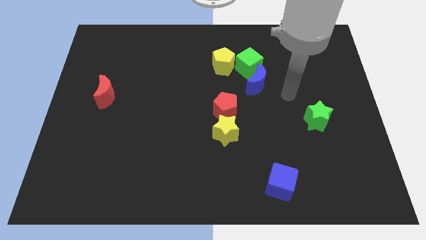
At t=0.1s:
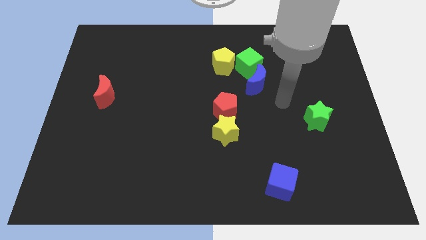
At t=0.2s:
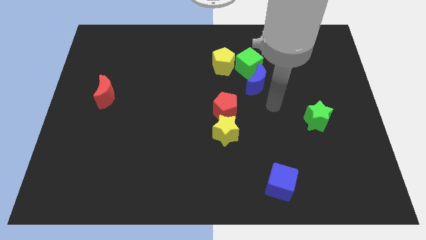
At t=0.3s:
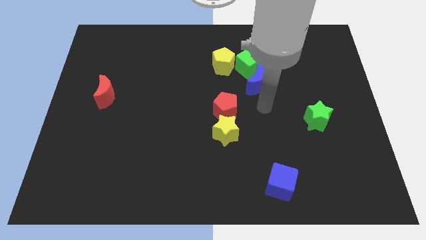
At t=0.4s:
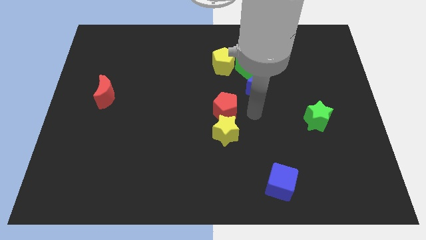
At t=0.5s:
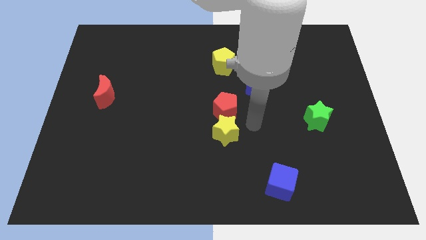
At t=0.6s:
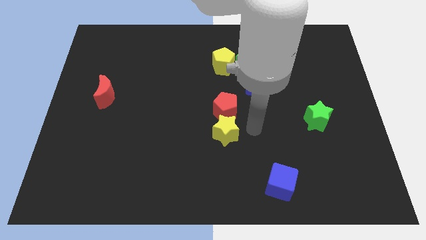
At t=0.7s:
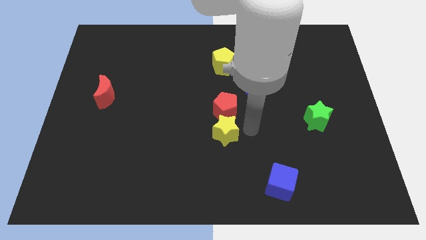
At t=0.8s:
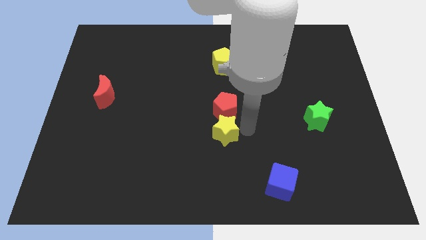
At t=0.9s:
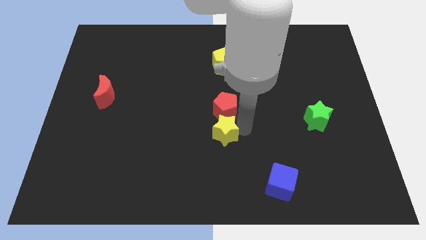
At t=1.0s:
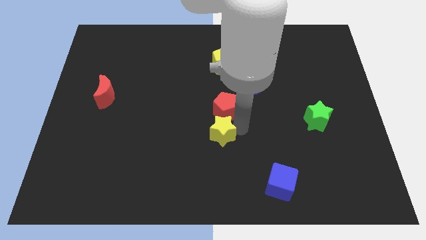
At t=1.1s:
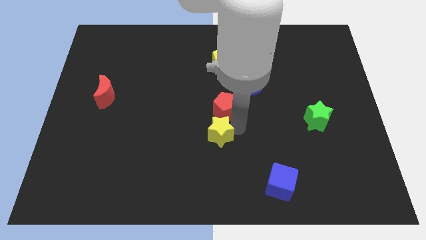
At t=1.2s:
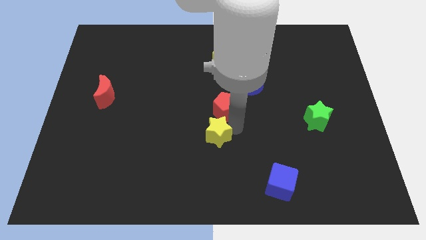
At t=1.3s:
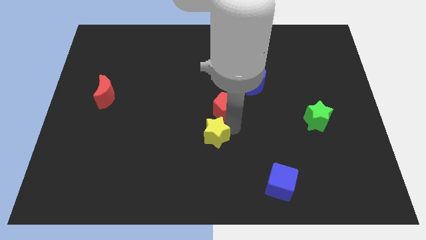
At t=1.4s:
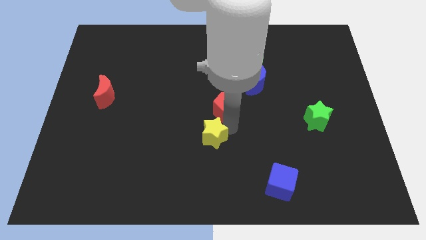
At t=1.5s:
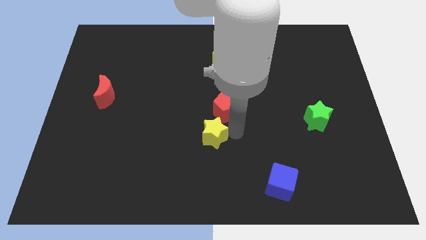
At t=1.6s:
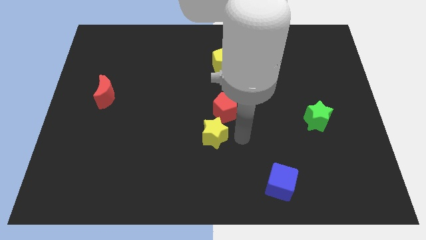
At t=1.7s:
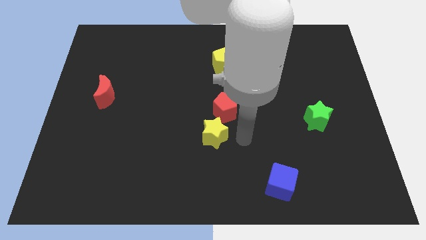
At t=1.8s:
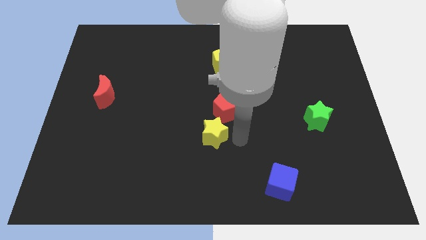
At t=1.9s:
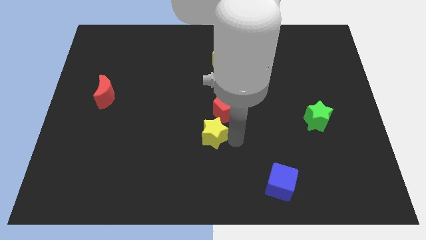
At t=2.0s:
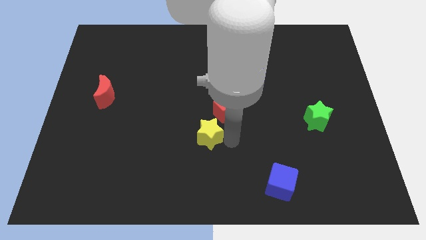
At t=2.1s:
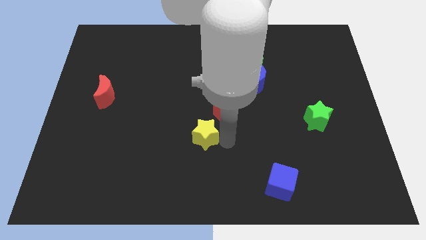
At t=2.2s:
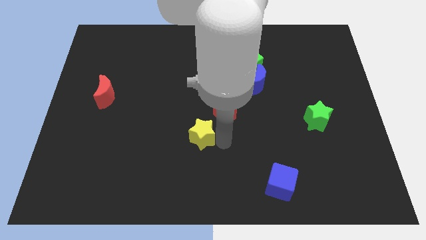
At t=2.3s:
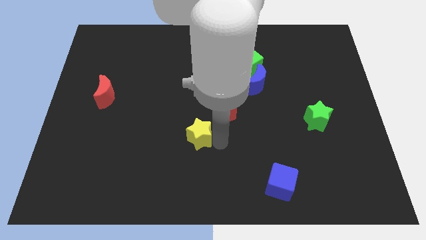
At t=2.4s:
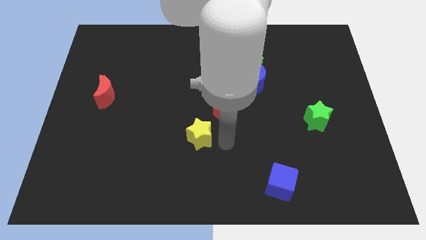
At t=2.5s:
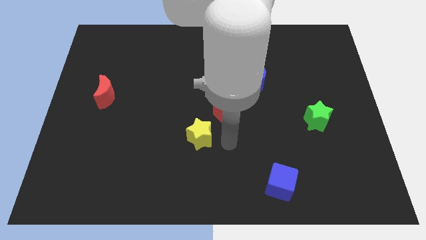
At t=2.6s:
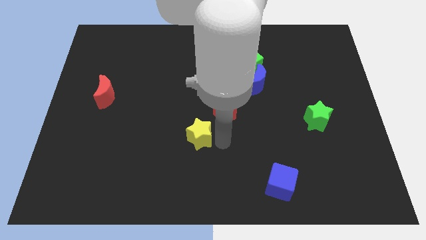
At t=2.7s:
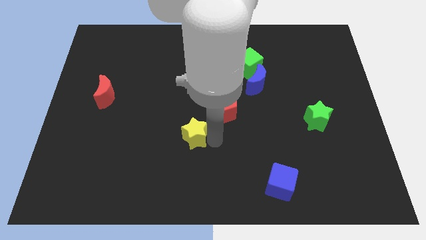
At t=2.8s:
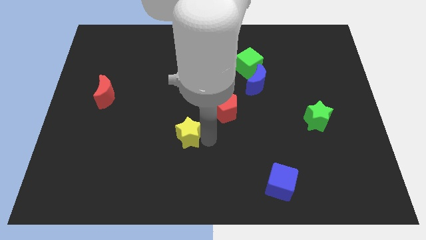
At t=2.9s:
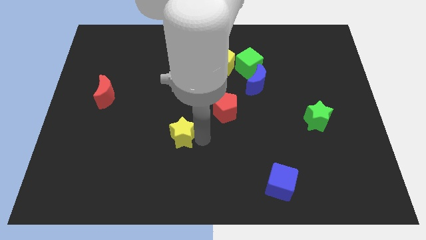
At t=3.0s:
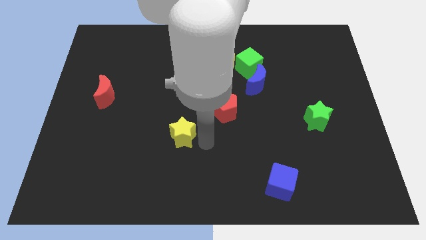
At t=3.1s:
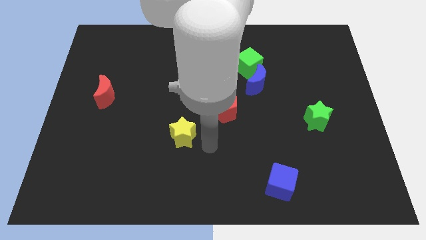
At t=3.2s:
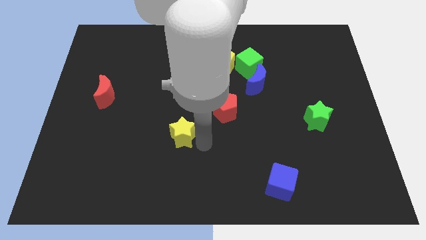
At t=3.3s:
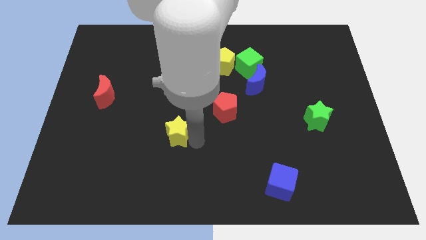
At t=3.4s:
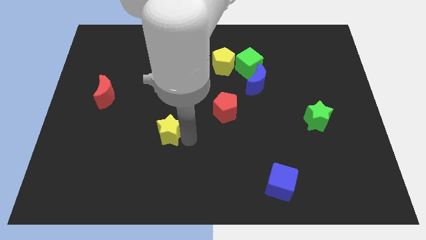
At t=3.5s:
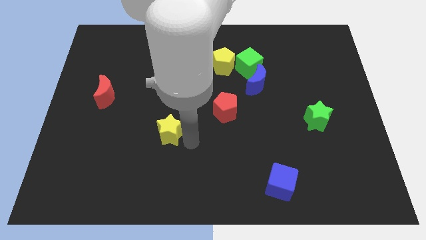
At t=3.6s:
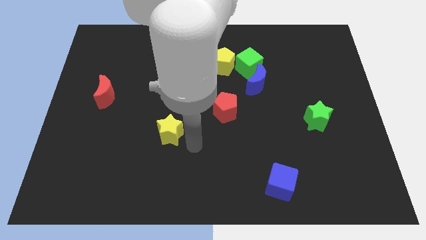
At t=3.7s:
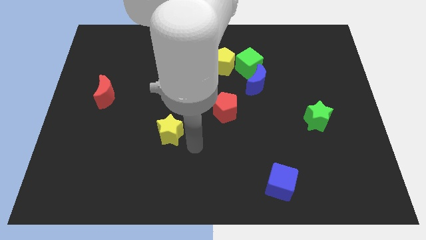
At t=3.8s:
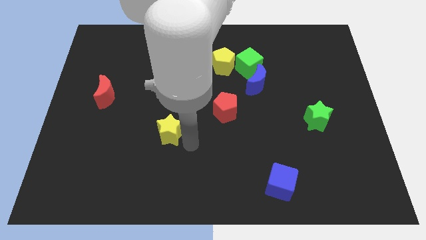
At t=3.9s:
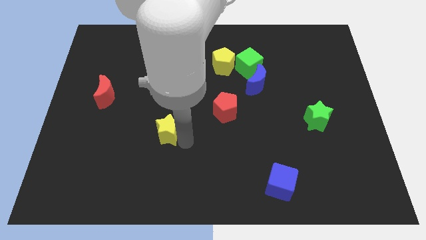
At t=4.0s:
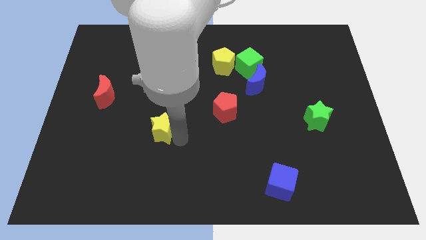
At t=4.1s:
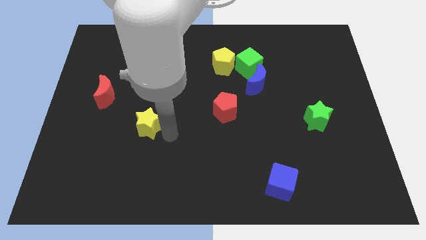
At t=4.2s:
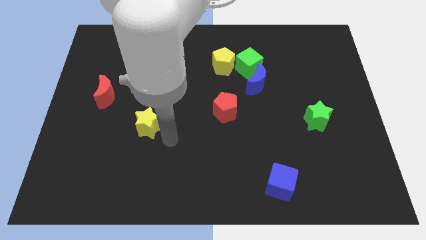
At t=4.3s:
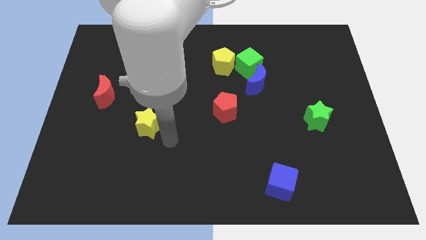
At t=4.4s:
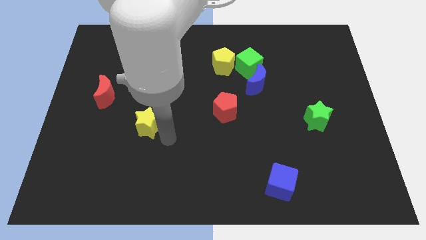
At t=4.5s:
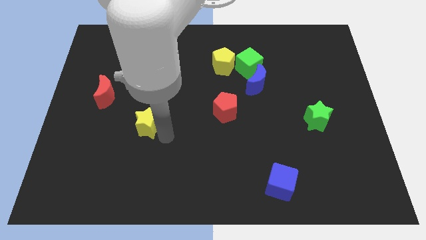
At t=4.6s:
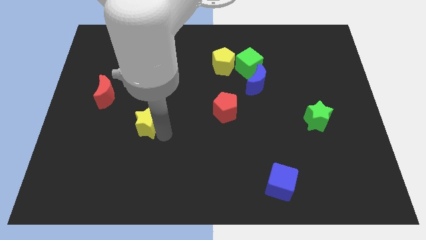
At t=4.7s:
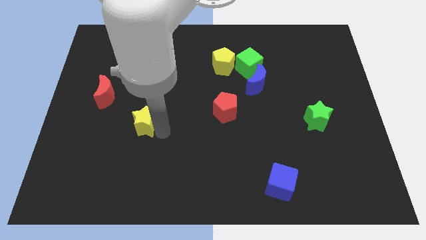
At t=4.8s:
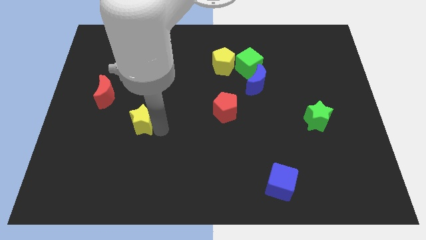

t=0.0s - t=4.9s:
slide the yellow star diagonally down and to the right of the red moon

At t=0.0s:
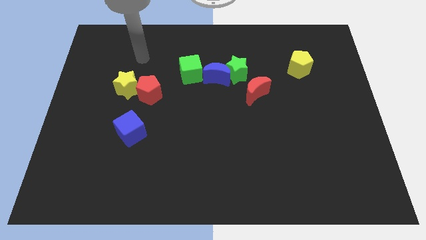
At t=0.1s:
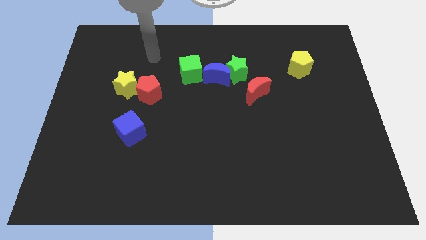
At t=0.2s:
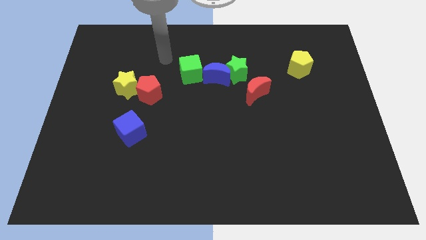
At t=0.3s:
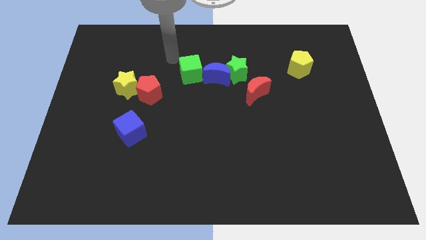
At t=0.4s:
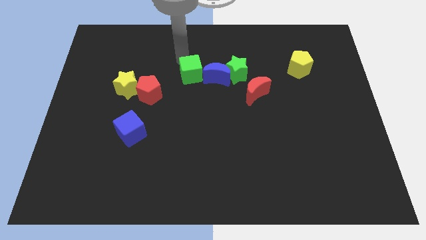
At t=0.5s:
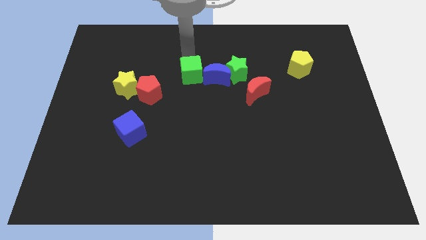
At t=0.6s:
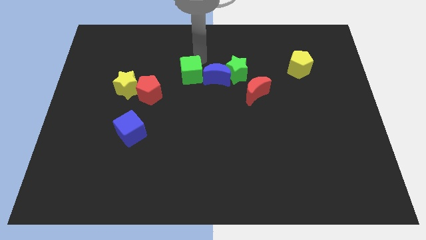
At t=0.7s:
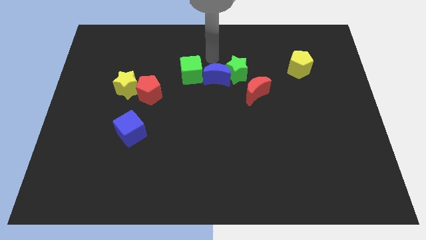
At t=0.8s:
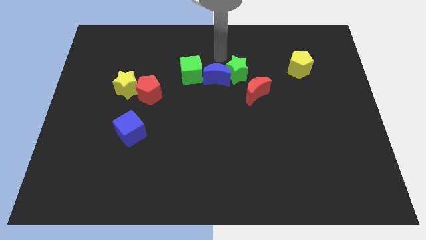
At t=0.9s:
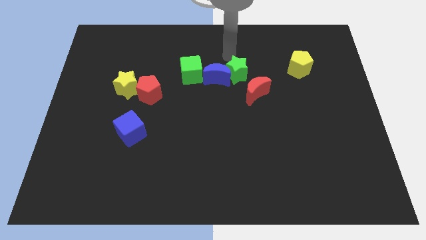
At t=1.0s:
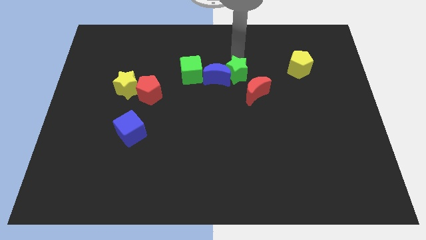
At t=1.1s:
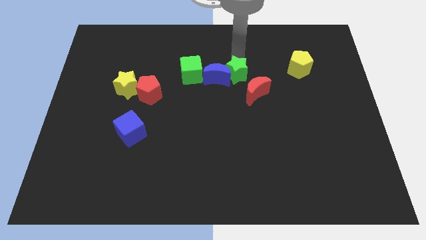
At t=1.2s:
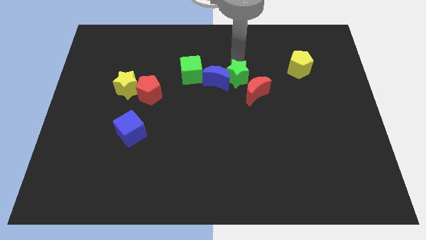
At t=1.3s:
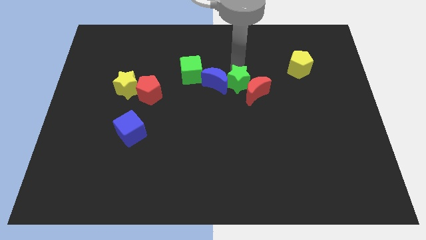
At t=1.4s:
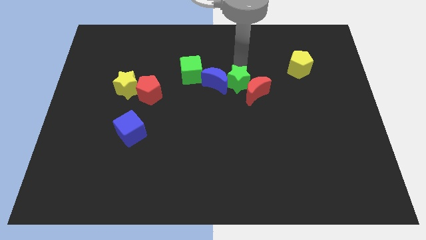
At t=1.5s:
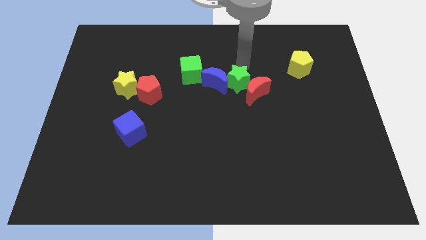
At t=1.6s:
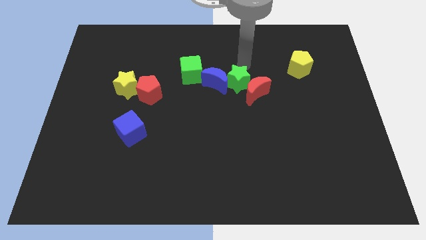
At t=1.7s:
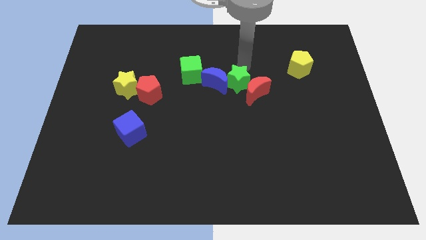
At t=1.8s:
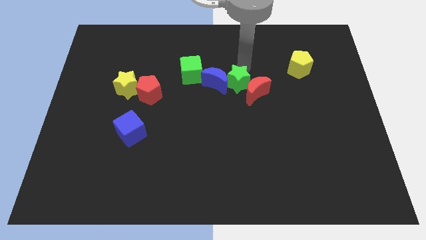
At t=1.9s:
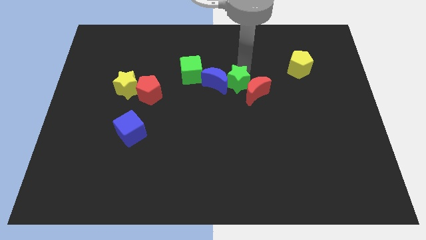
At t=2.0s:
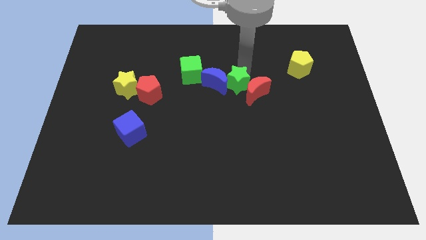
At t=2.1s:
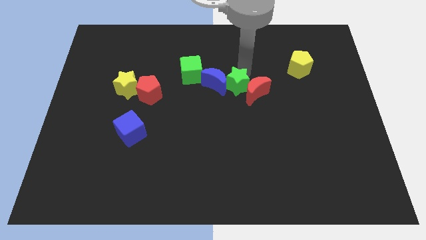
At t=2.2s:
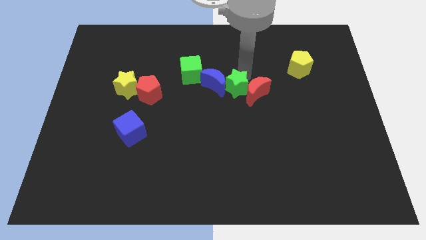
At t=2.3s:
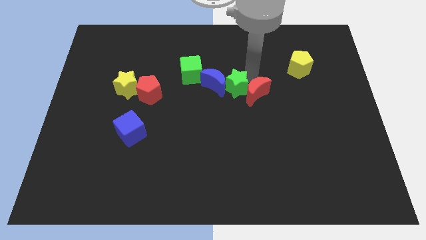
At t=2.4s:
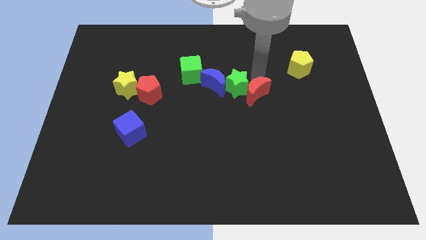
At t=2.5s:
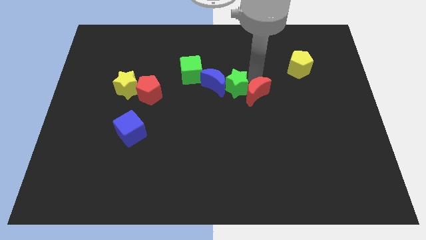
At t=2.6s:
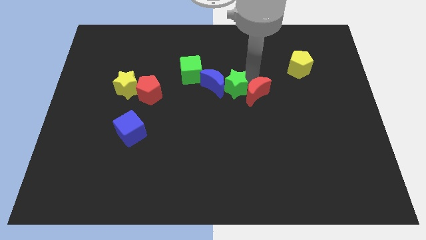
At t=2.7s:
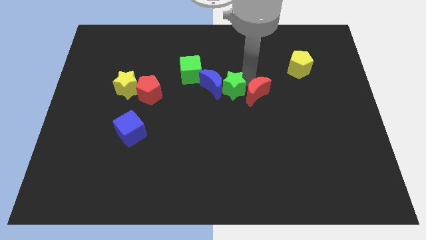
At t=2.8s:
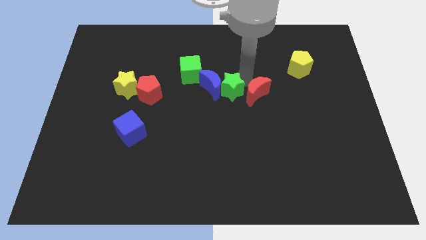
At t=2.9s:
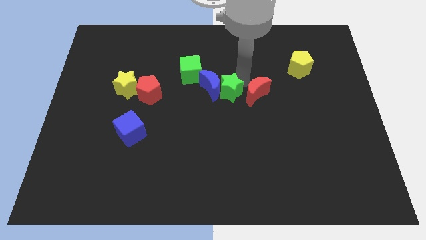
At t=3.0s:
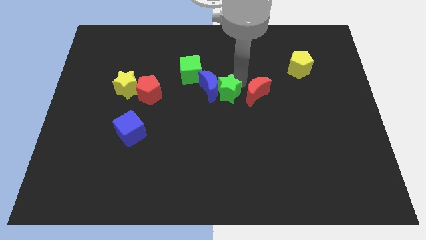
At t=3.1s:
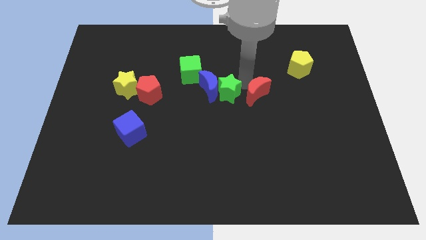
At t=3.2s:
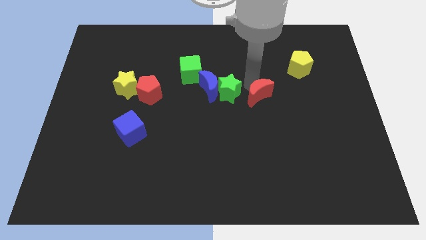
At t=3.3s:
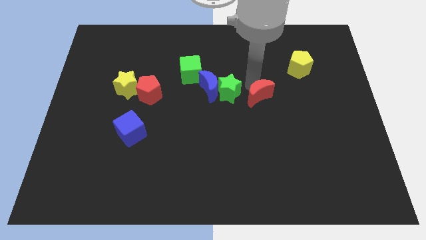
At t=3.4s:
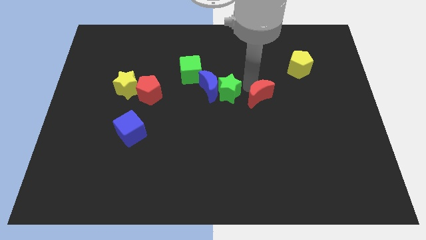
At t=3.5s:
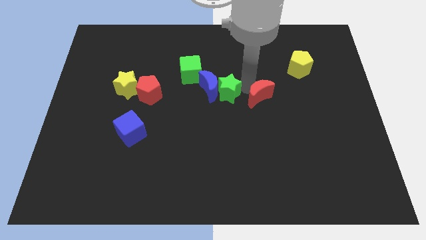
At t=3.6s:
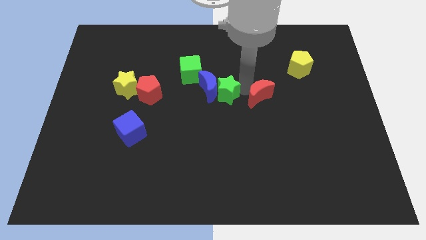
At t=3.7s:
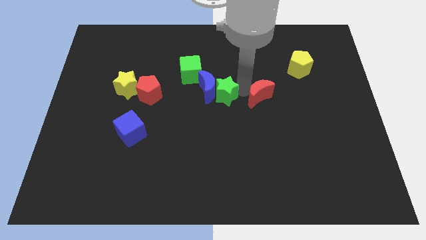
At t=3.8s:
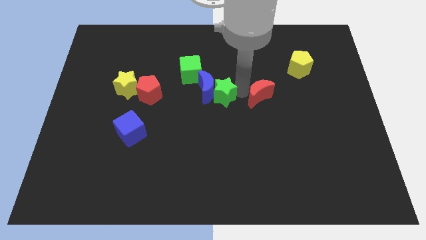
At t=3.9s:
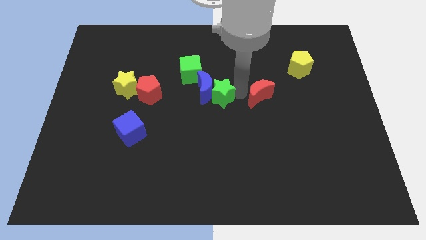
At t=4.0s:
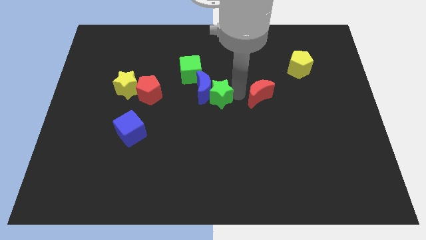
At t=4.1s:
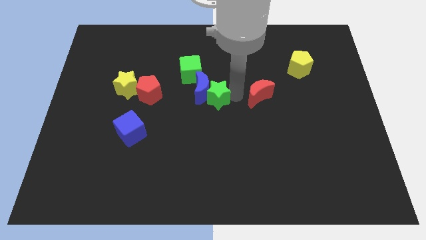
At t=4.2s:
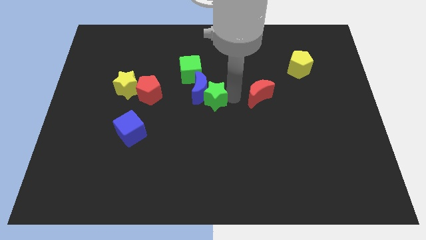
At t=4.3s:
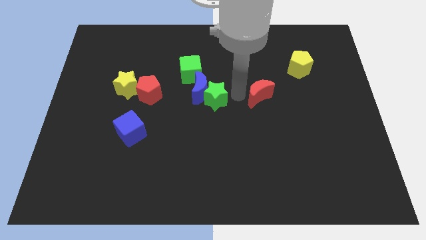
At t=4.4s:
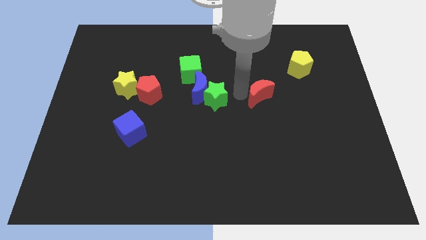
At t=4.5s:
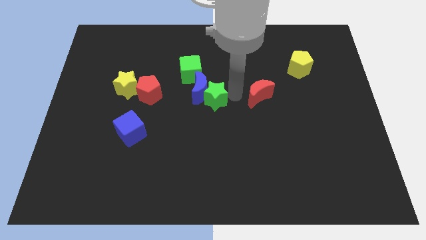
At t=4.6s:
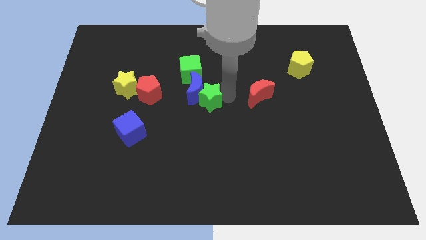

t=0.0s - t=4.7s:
push the green star to the bottom of the green cube
